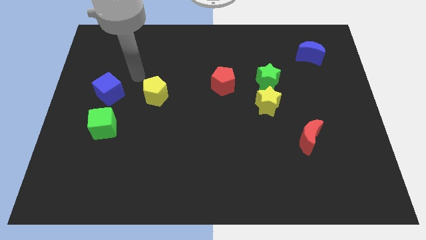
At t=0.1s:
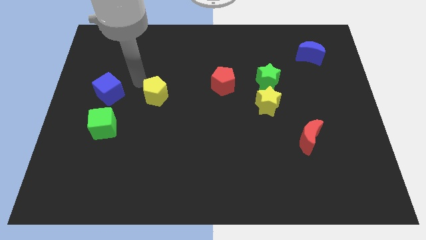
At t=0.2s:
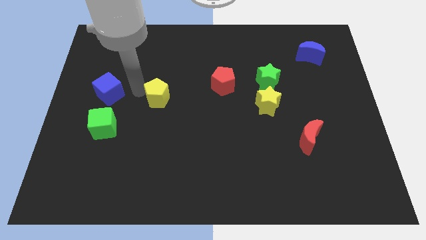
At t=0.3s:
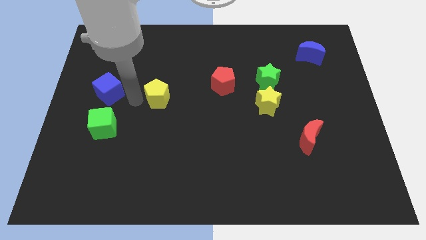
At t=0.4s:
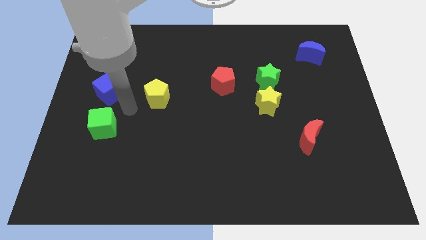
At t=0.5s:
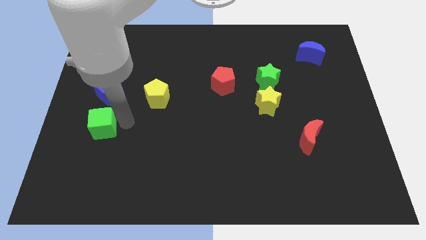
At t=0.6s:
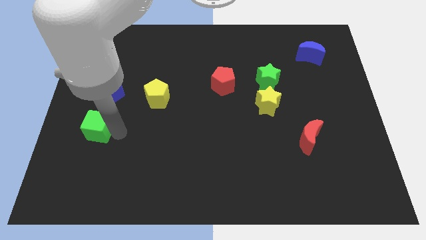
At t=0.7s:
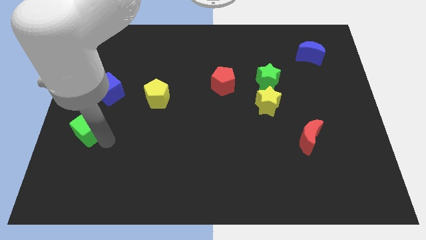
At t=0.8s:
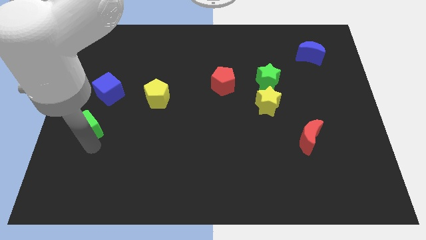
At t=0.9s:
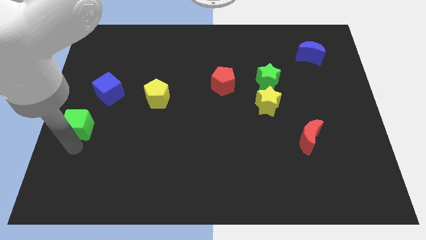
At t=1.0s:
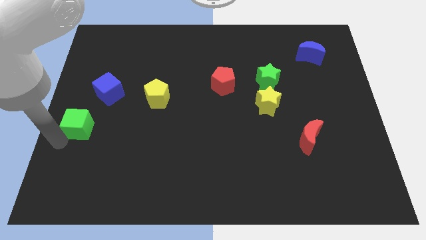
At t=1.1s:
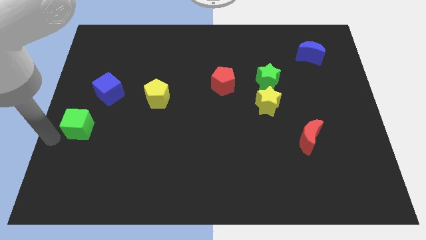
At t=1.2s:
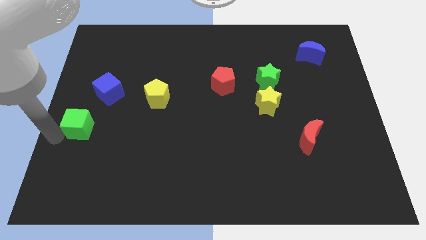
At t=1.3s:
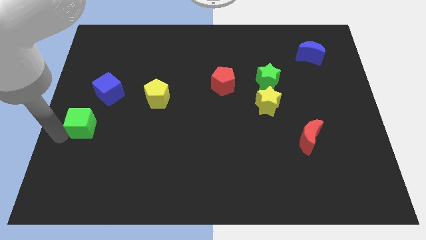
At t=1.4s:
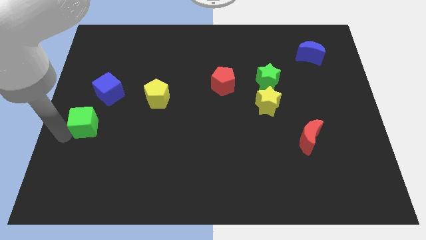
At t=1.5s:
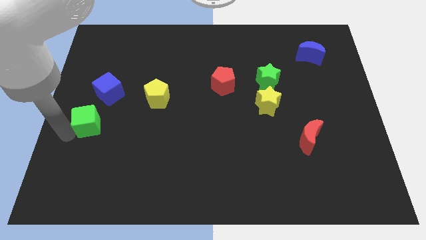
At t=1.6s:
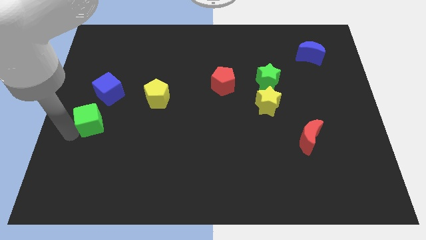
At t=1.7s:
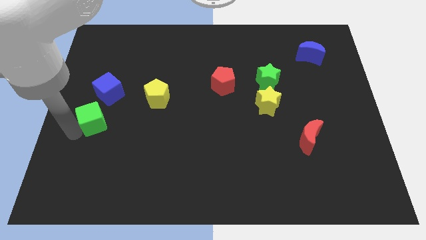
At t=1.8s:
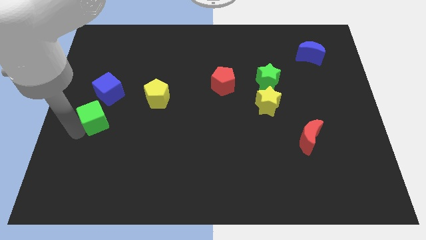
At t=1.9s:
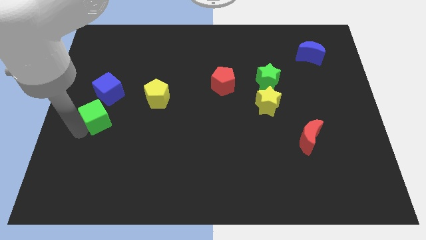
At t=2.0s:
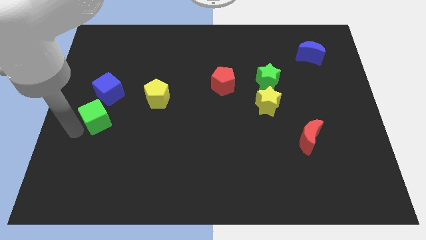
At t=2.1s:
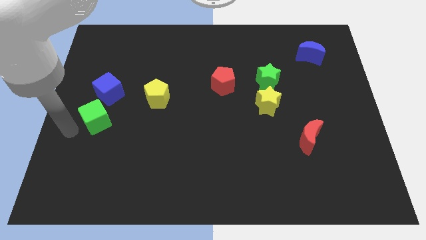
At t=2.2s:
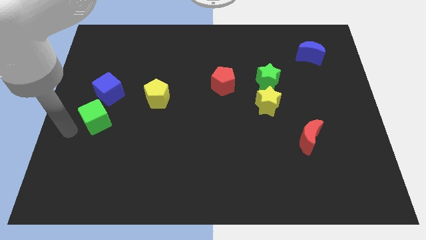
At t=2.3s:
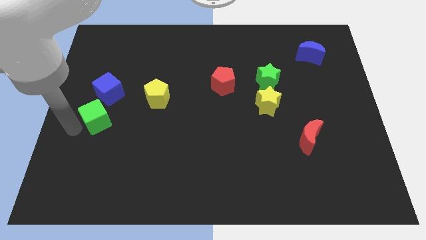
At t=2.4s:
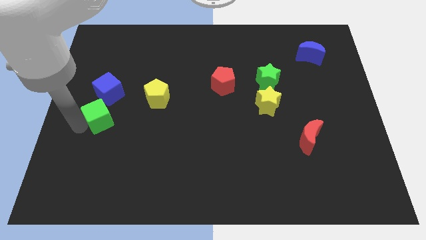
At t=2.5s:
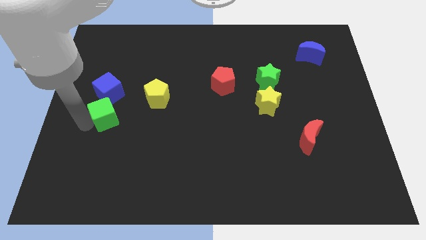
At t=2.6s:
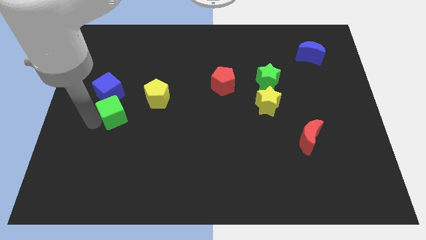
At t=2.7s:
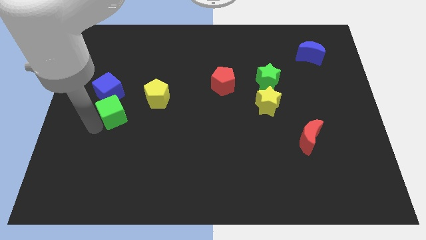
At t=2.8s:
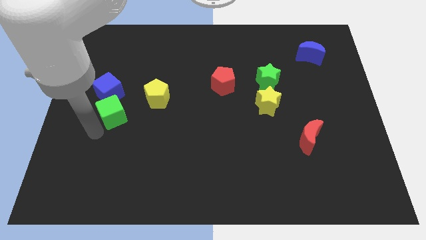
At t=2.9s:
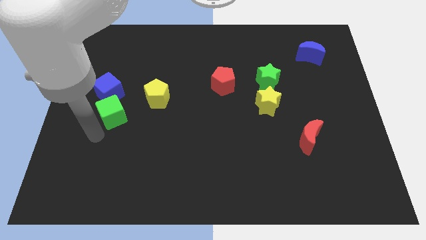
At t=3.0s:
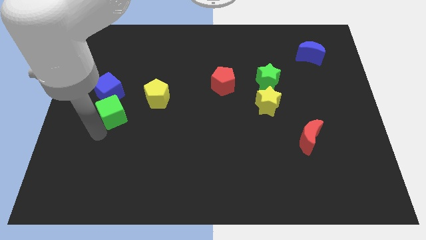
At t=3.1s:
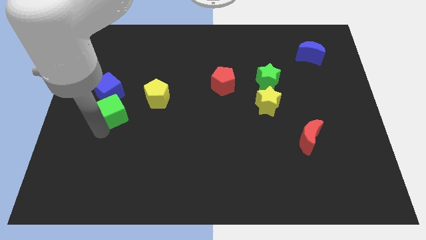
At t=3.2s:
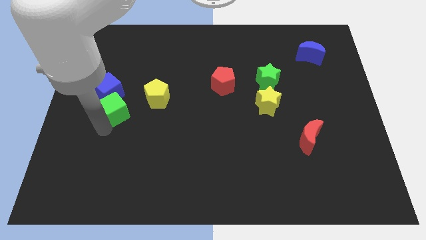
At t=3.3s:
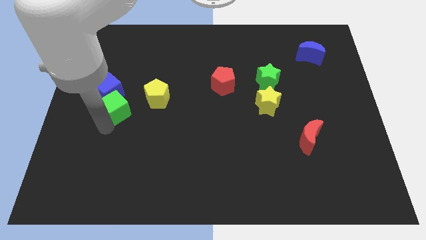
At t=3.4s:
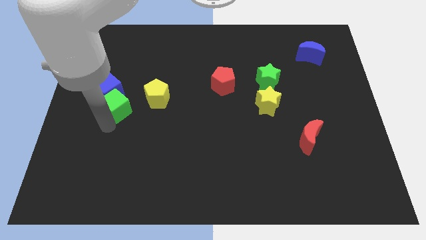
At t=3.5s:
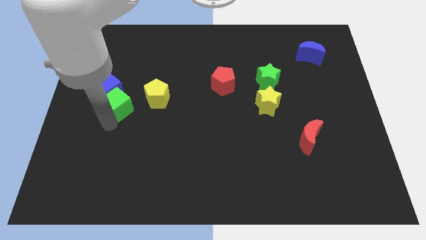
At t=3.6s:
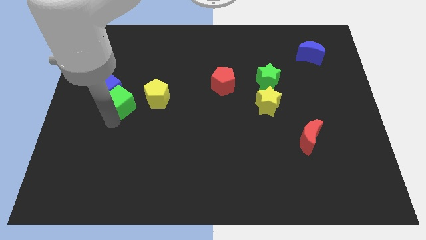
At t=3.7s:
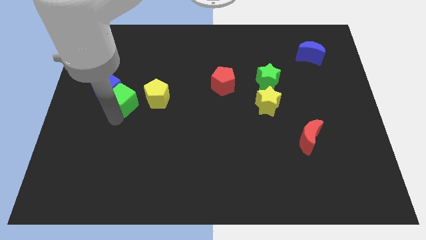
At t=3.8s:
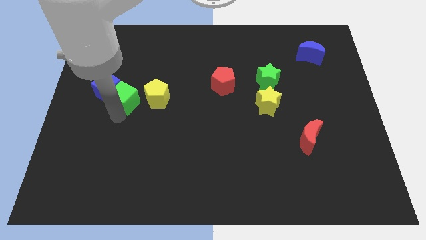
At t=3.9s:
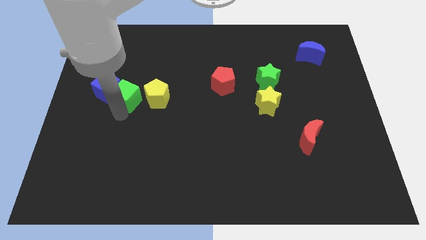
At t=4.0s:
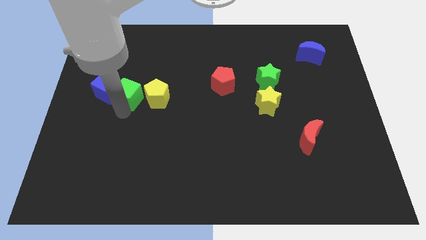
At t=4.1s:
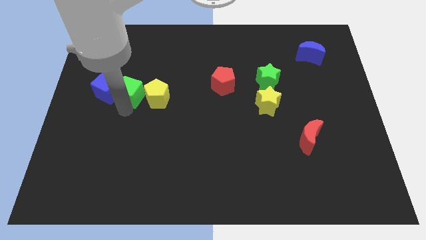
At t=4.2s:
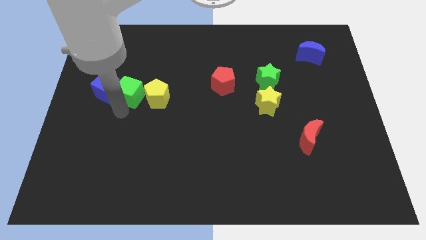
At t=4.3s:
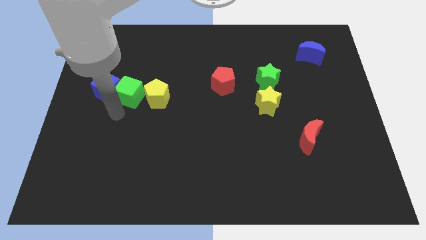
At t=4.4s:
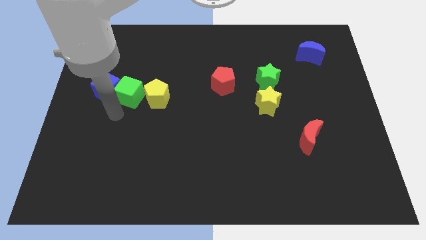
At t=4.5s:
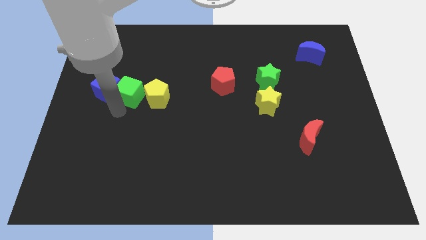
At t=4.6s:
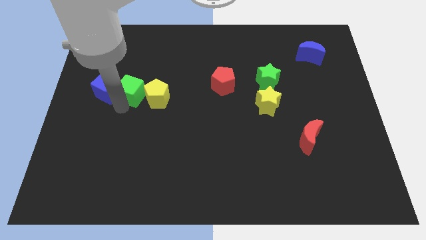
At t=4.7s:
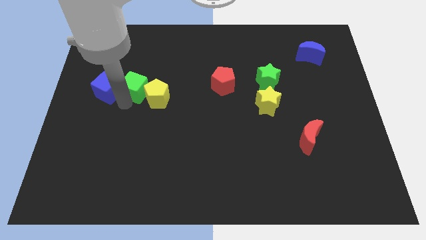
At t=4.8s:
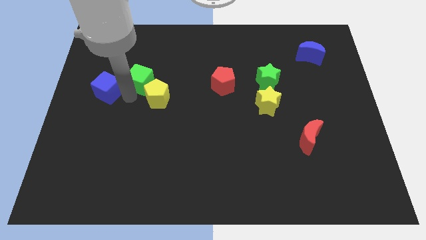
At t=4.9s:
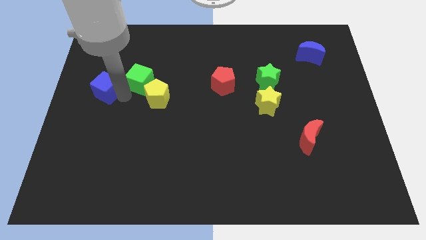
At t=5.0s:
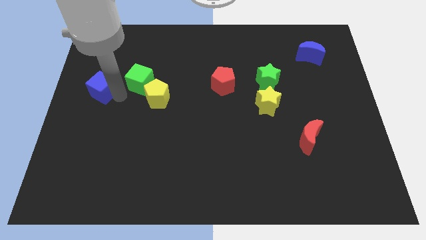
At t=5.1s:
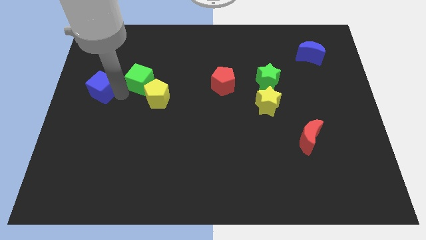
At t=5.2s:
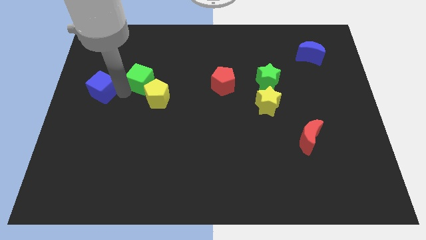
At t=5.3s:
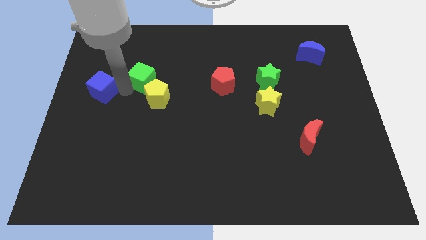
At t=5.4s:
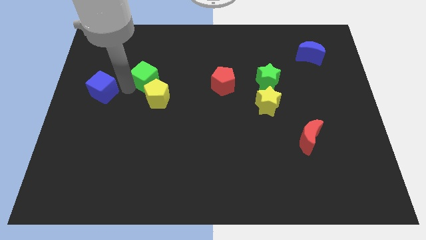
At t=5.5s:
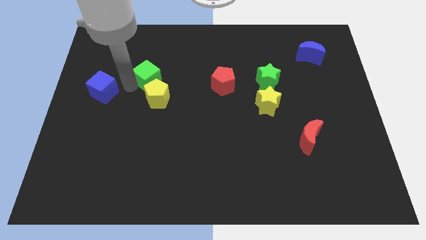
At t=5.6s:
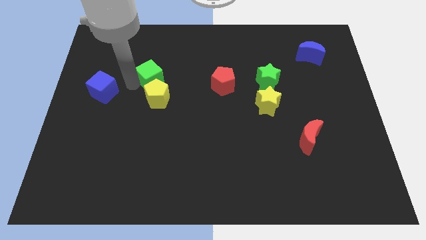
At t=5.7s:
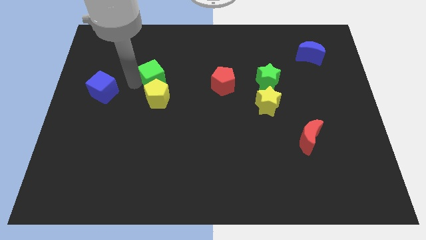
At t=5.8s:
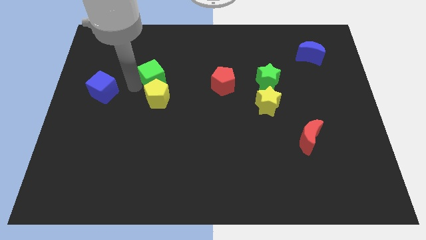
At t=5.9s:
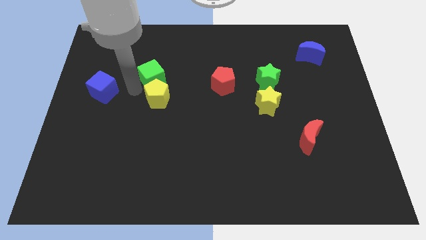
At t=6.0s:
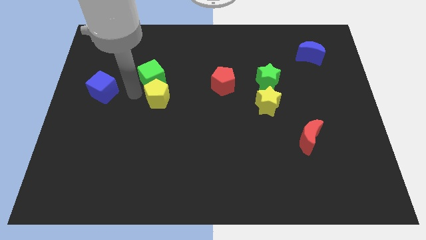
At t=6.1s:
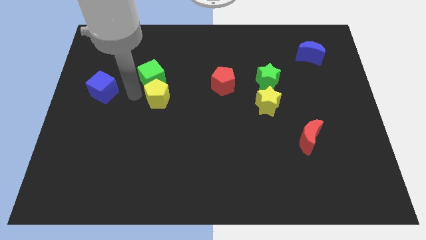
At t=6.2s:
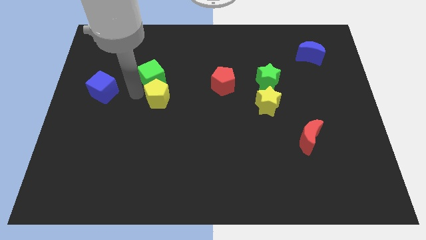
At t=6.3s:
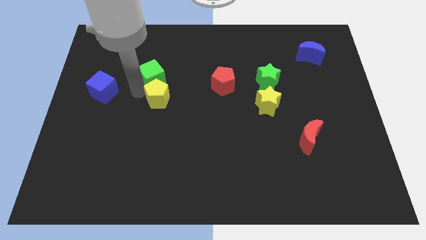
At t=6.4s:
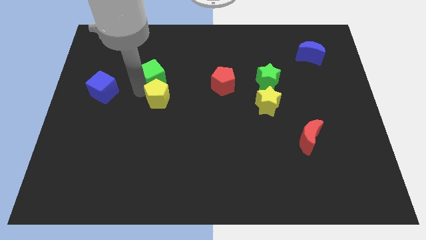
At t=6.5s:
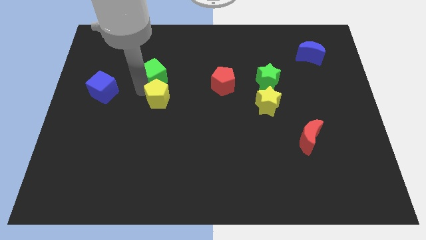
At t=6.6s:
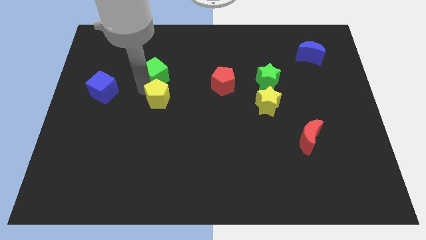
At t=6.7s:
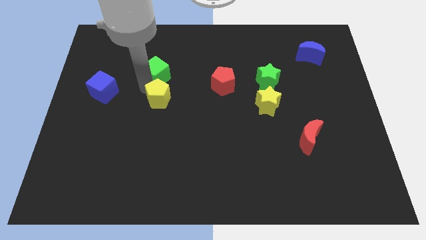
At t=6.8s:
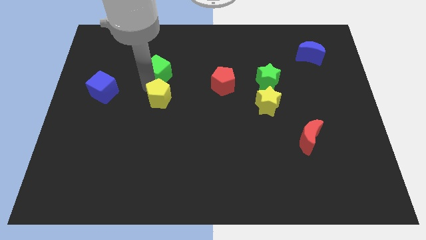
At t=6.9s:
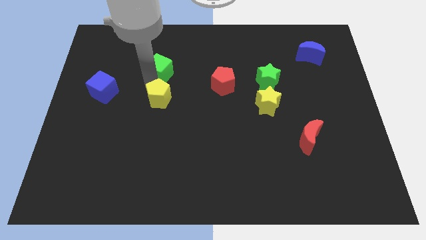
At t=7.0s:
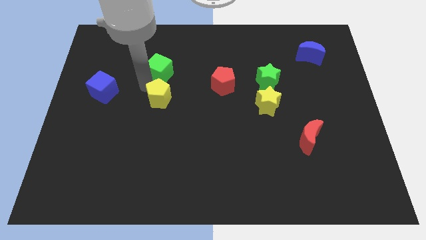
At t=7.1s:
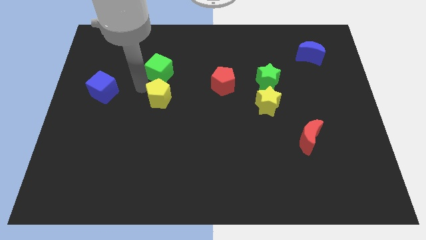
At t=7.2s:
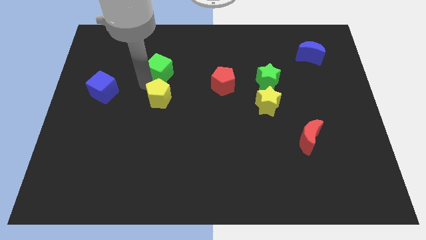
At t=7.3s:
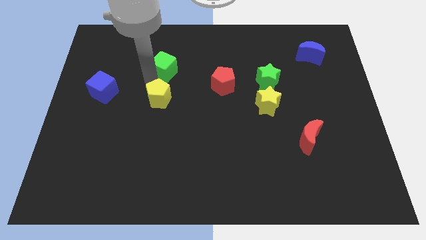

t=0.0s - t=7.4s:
move the green cube diagonally upwards and right

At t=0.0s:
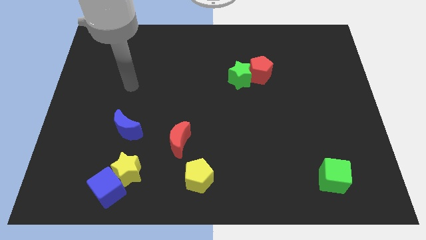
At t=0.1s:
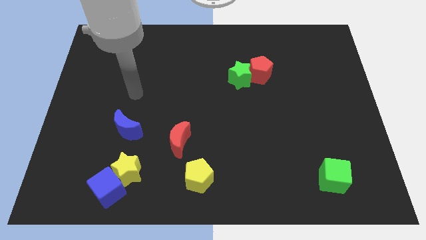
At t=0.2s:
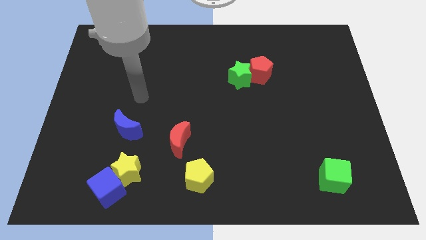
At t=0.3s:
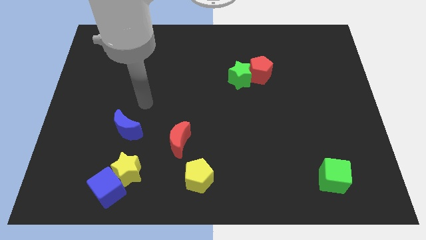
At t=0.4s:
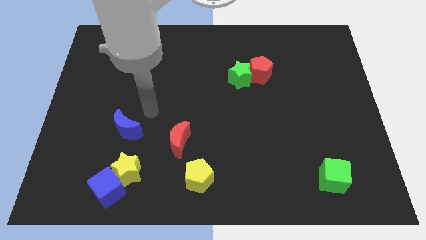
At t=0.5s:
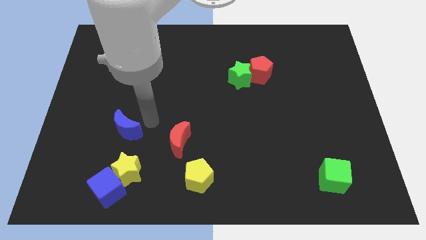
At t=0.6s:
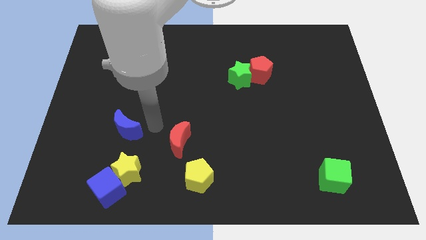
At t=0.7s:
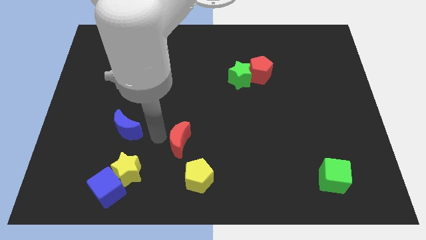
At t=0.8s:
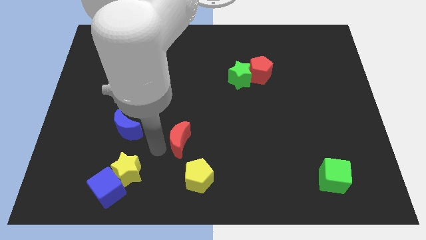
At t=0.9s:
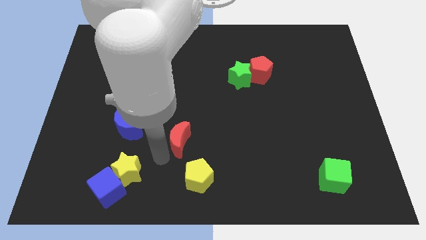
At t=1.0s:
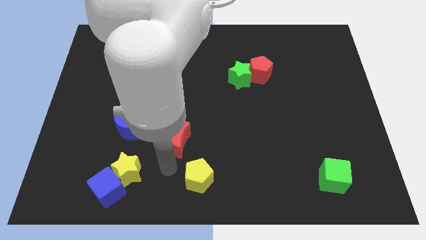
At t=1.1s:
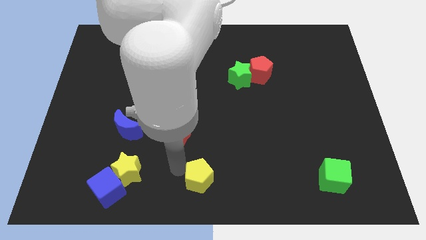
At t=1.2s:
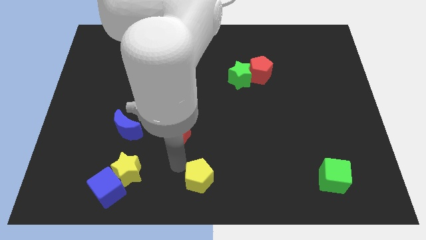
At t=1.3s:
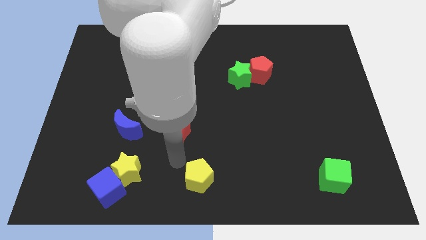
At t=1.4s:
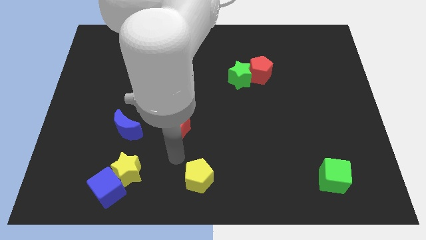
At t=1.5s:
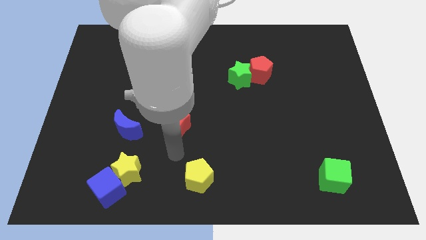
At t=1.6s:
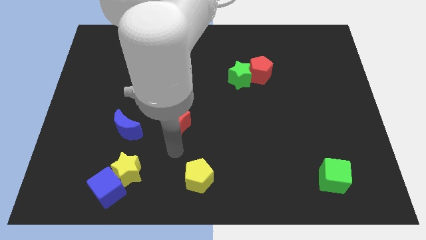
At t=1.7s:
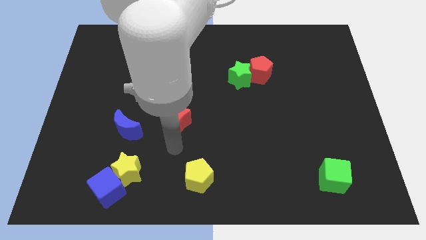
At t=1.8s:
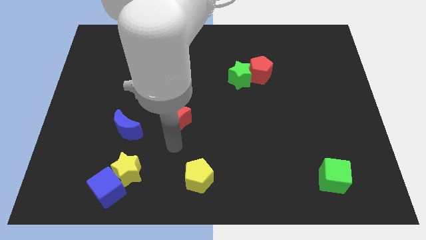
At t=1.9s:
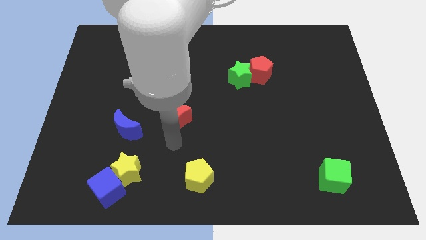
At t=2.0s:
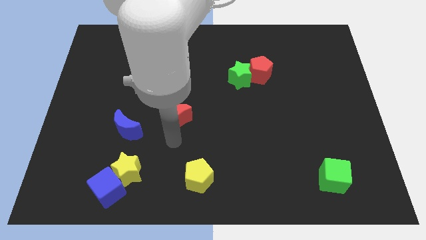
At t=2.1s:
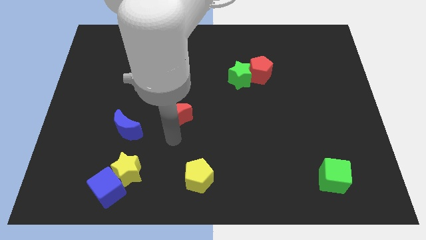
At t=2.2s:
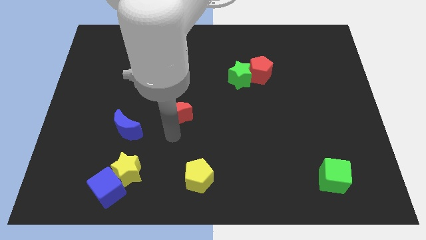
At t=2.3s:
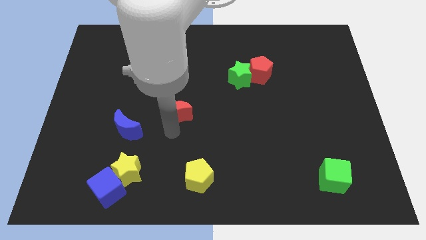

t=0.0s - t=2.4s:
move the red moon slightly upwards
